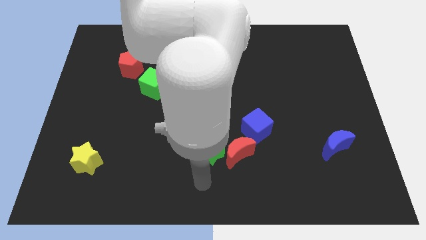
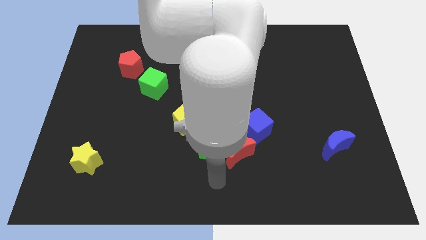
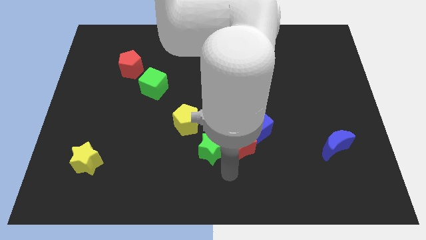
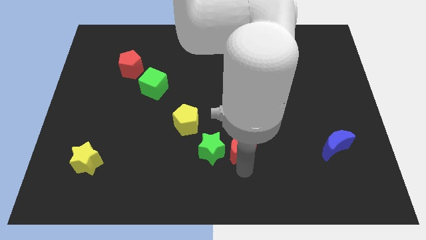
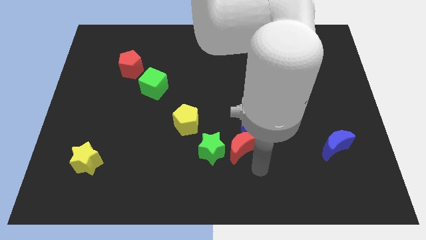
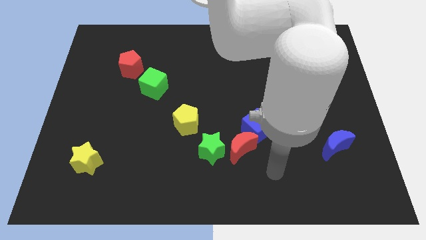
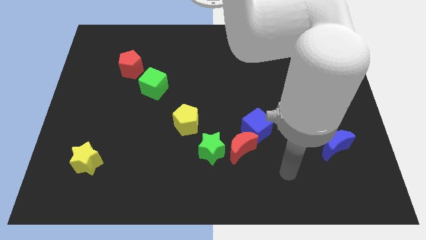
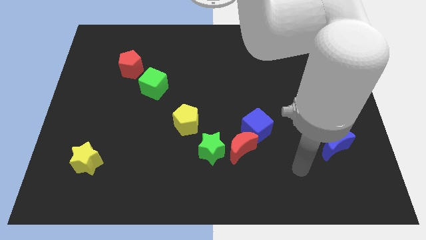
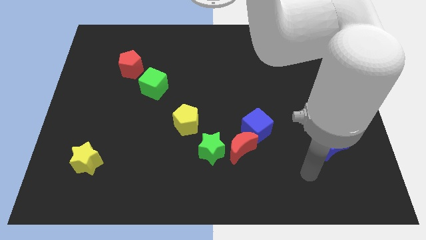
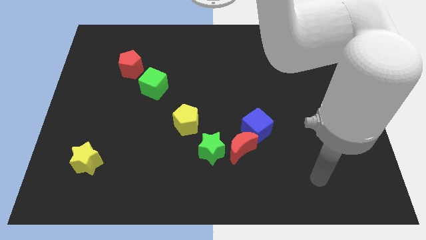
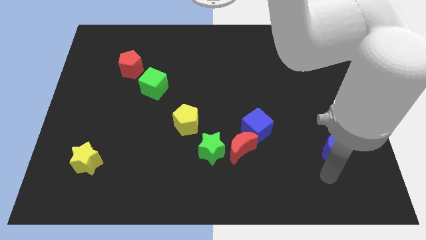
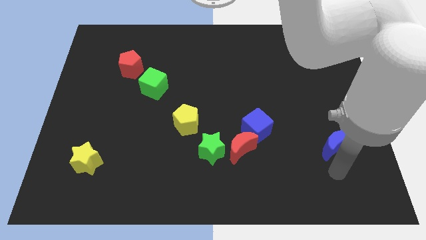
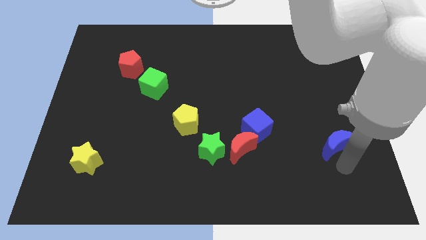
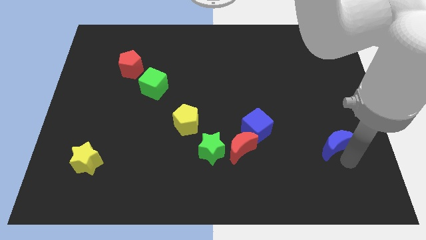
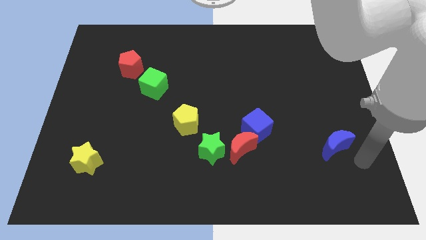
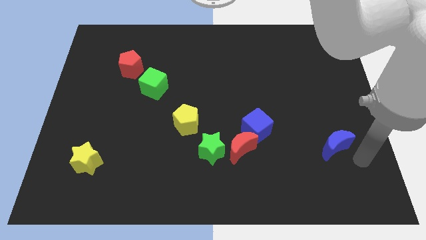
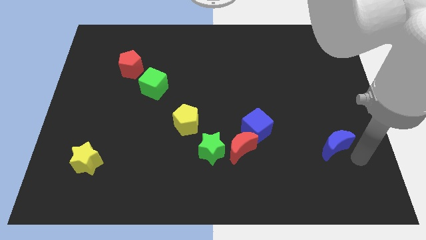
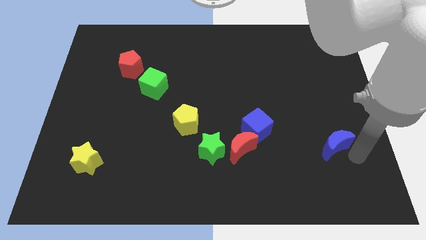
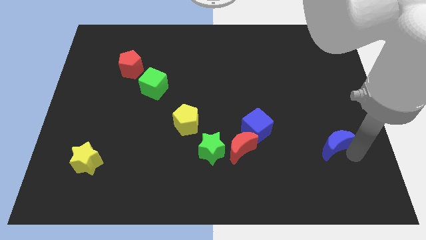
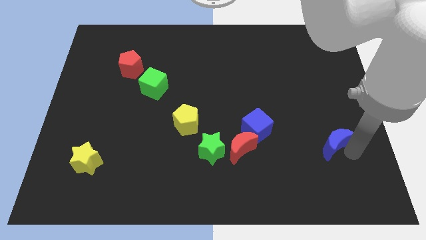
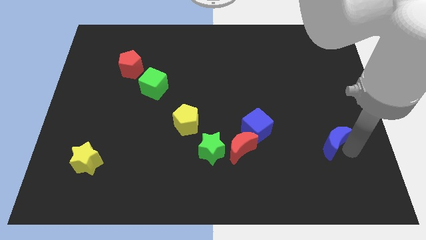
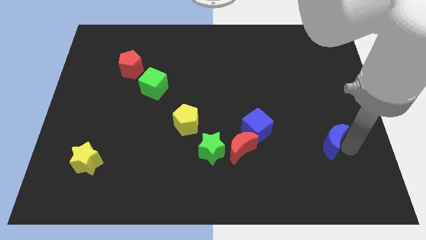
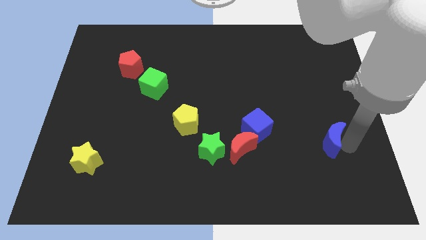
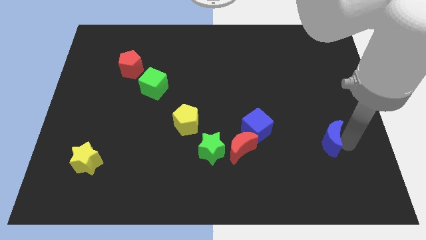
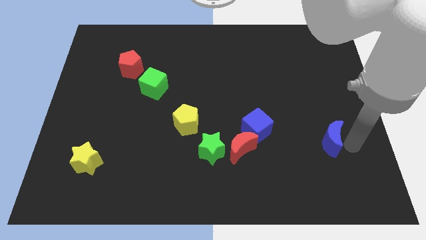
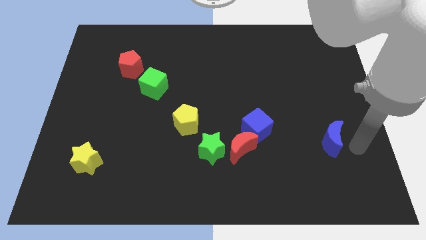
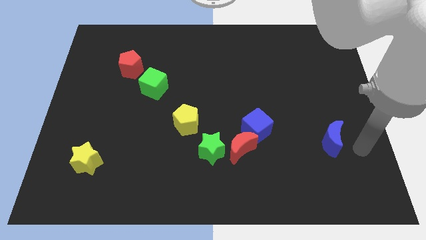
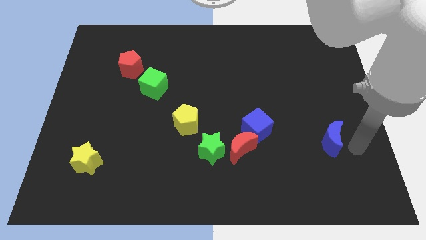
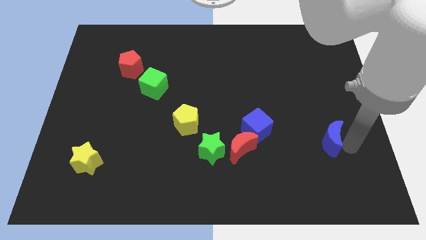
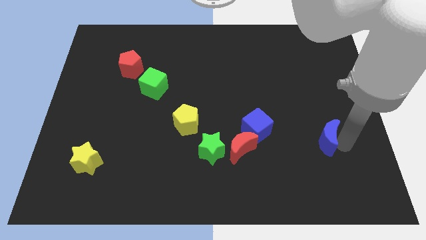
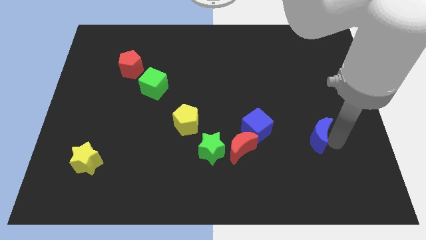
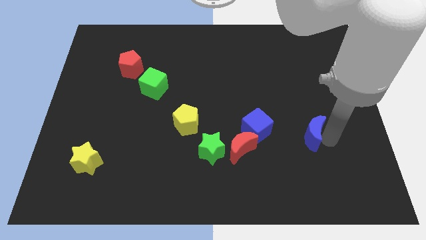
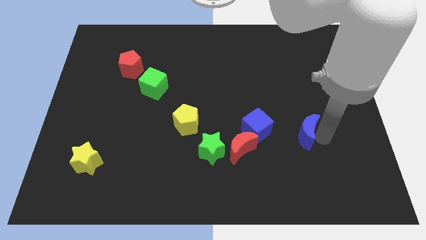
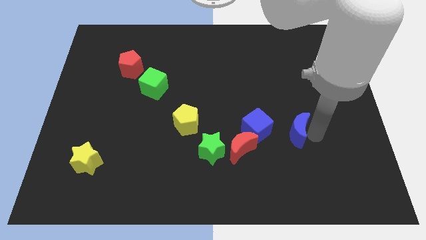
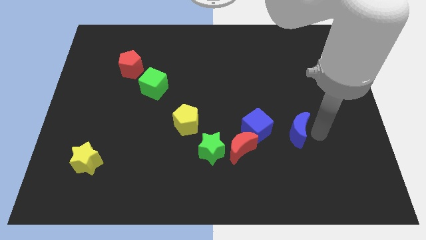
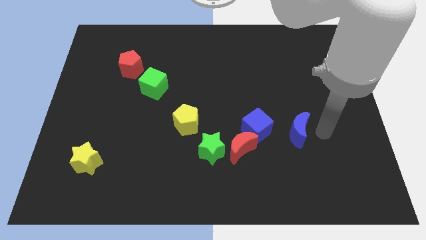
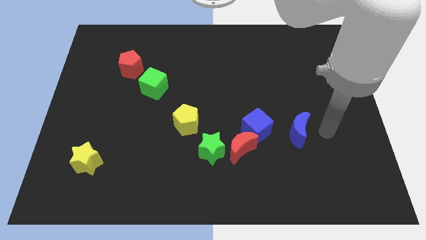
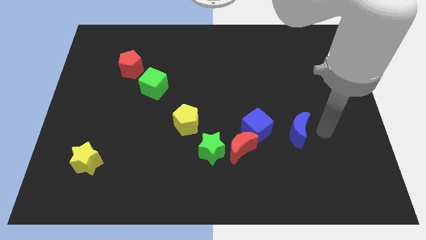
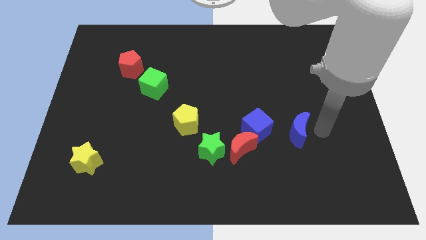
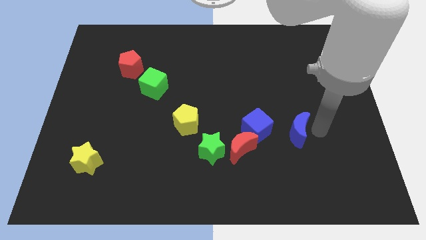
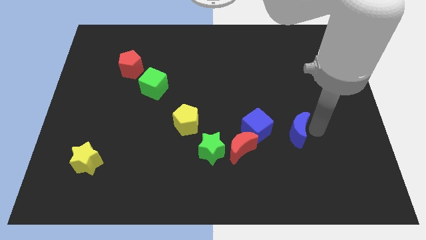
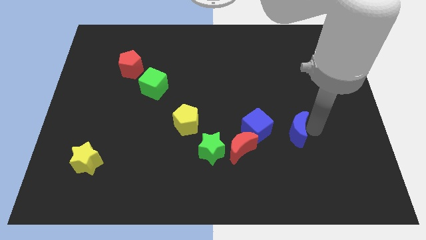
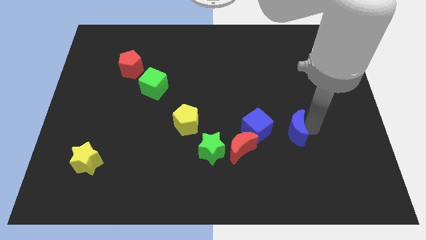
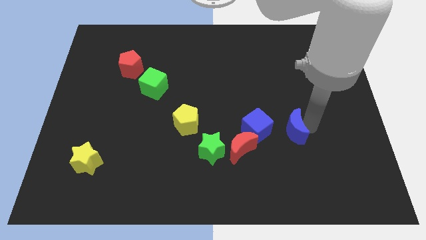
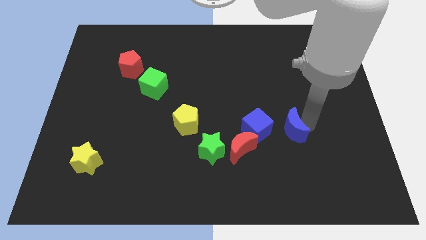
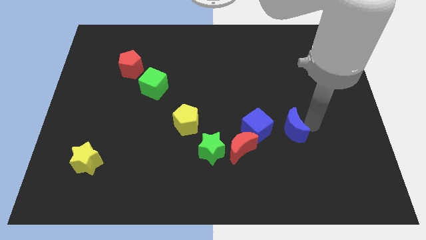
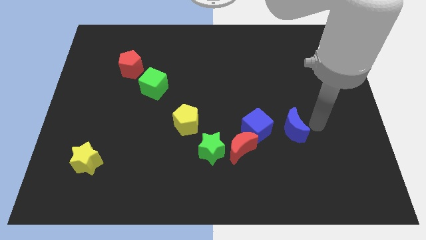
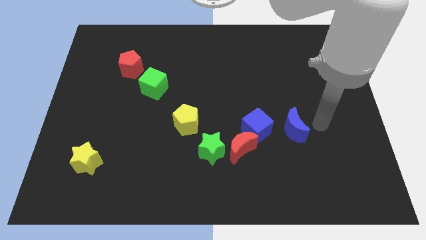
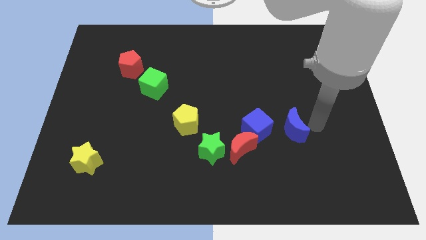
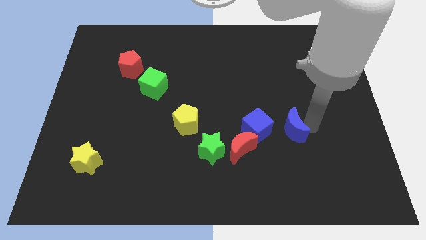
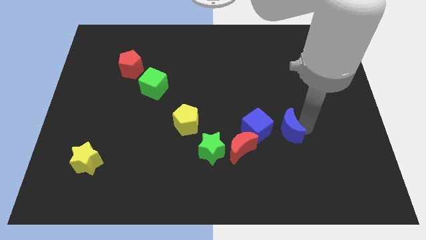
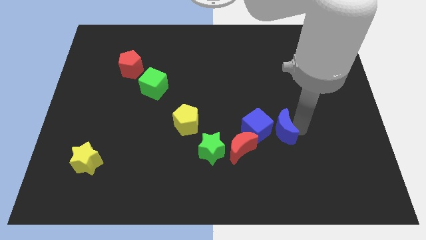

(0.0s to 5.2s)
push the blue moon close to the blue cube

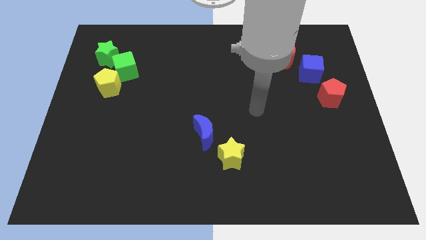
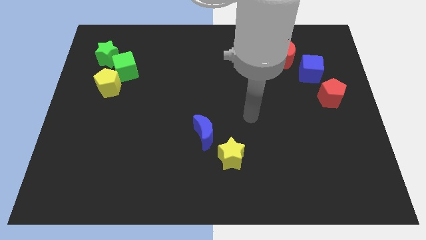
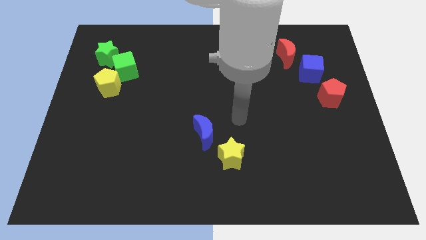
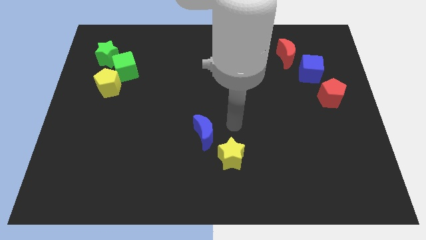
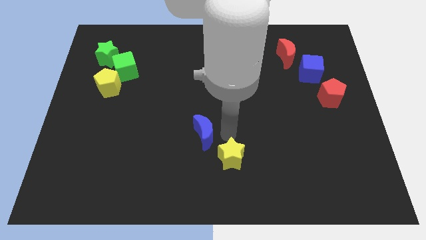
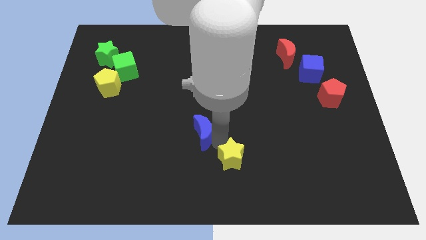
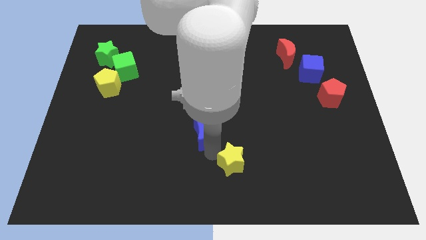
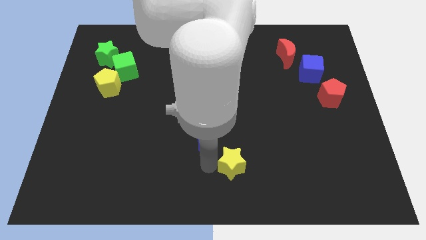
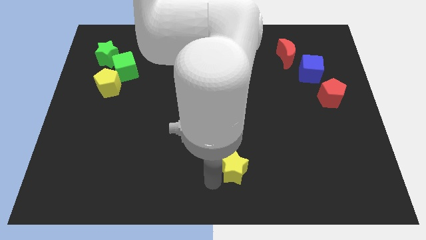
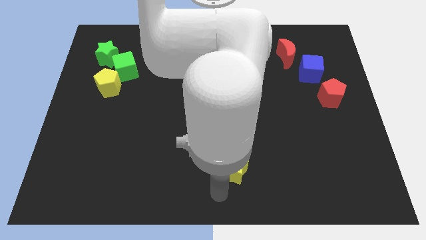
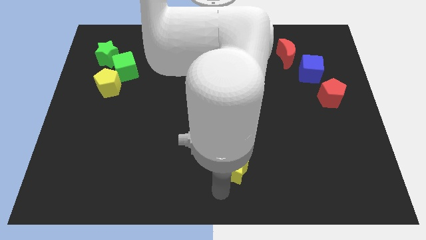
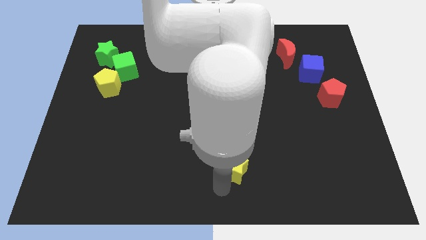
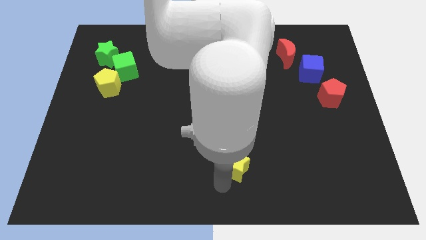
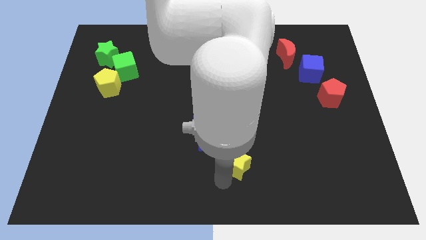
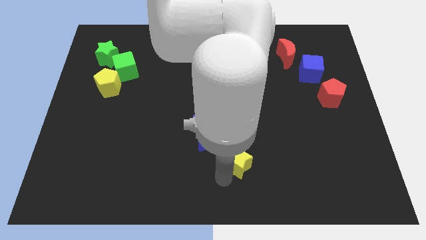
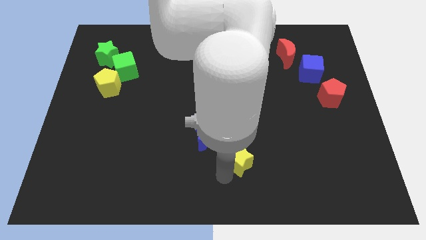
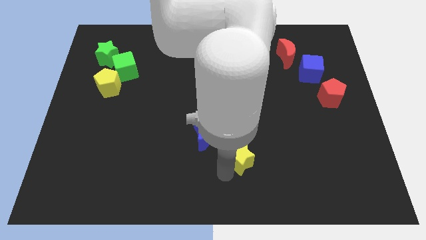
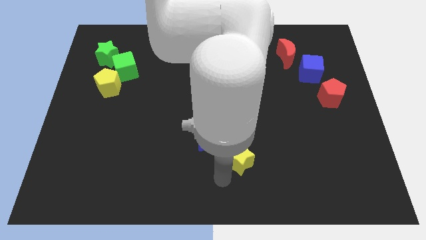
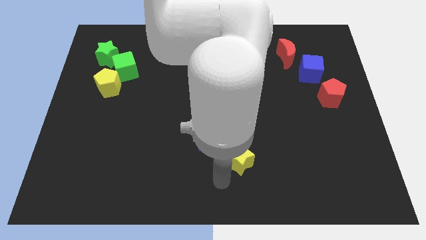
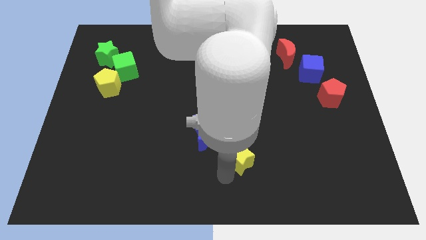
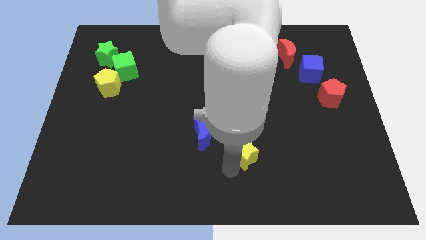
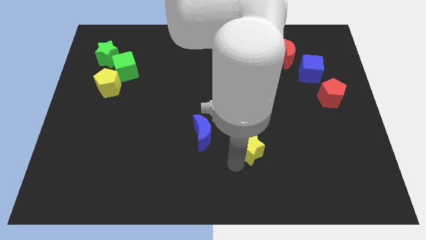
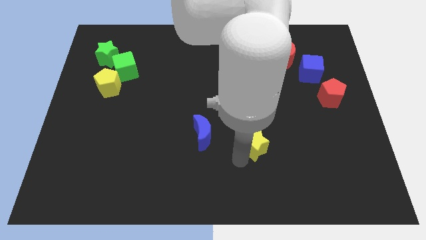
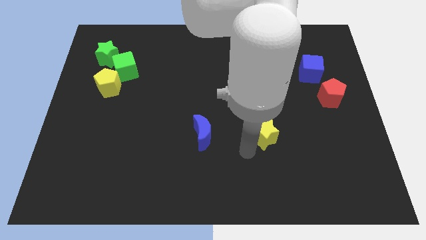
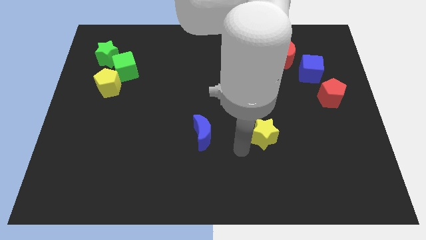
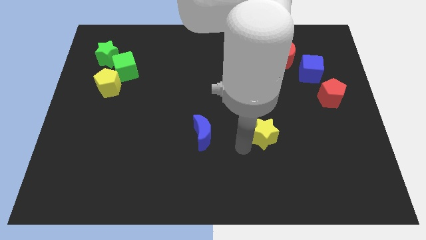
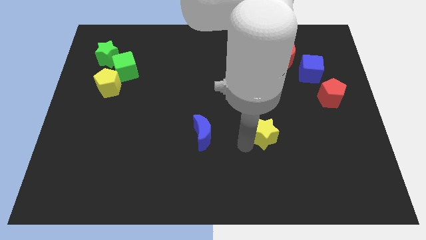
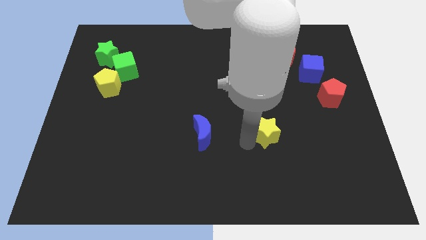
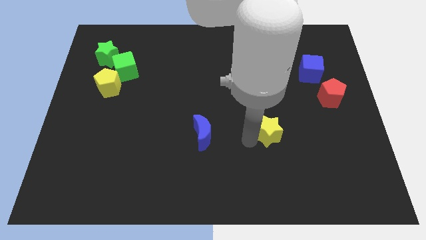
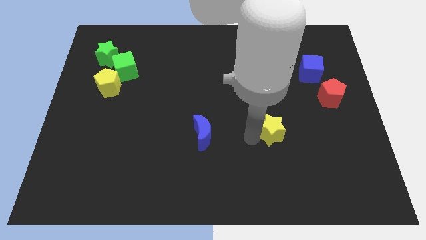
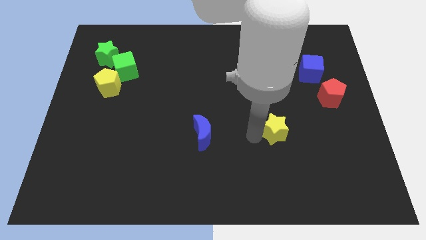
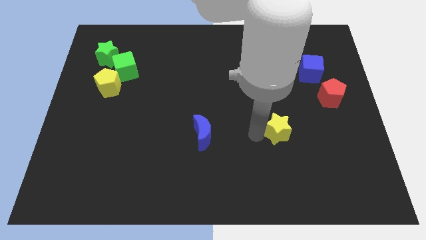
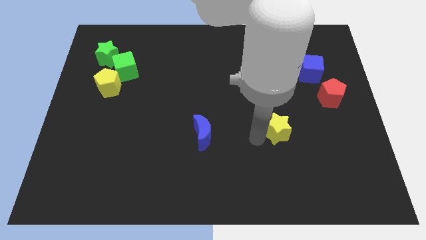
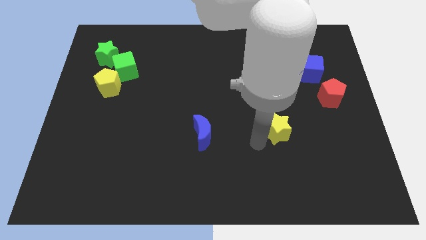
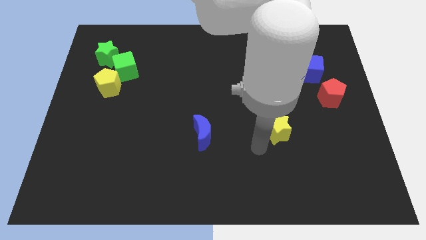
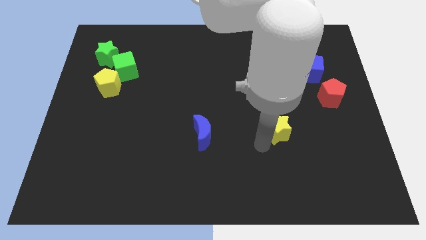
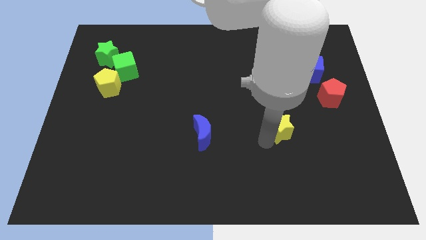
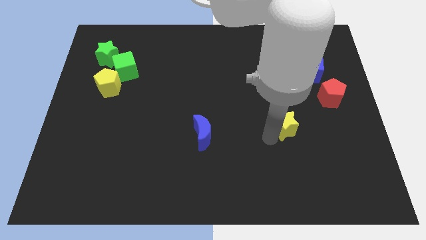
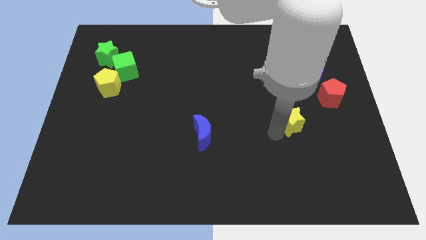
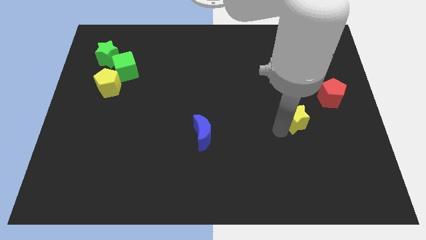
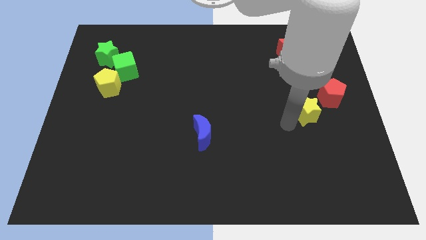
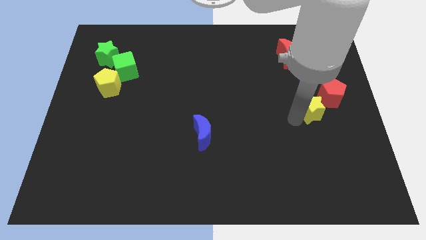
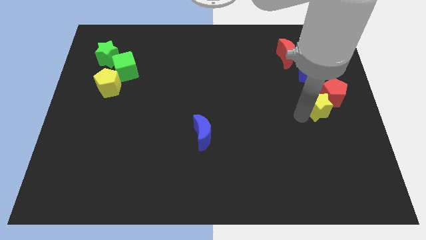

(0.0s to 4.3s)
move the yellow star to the red pentagon
